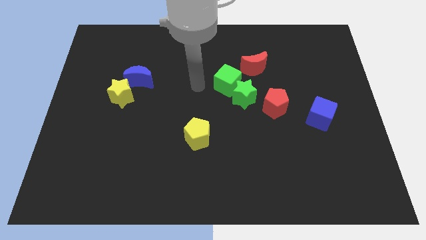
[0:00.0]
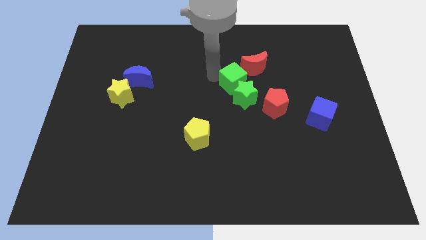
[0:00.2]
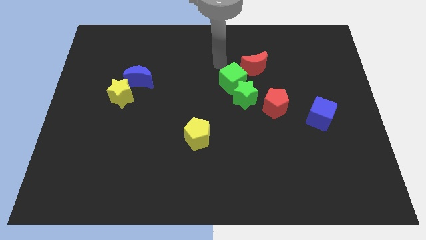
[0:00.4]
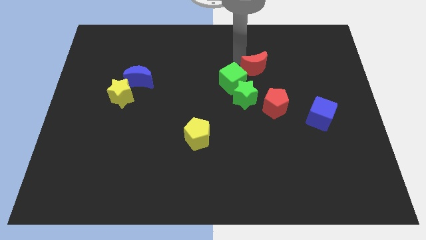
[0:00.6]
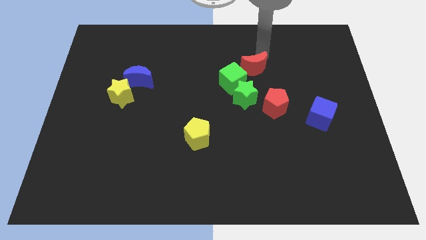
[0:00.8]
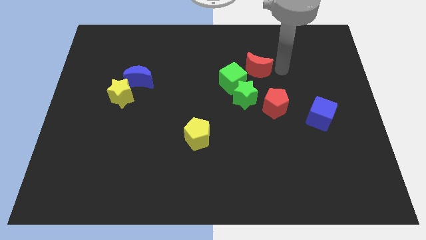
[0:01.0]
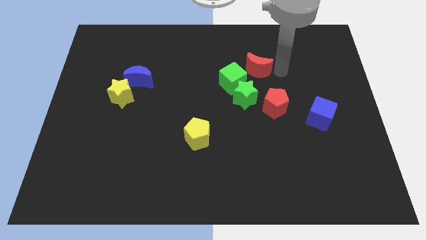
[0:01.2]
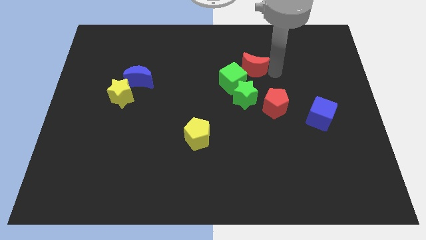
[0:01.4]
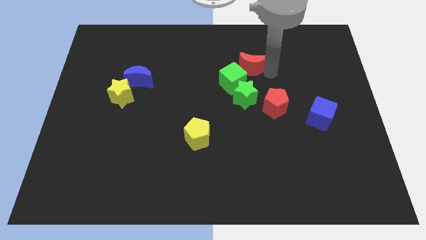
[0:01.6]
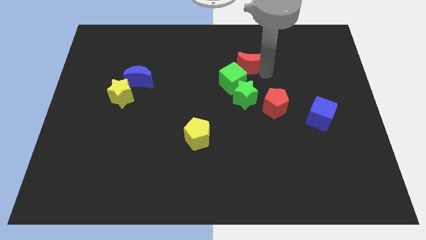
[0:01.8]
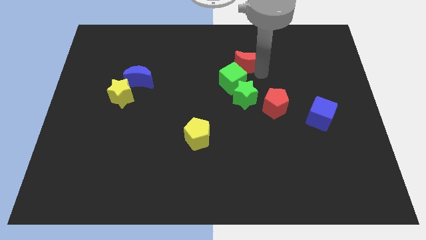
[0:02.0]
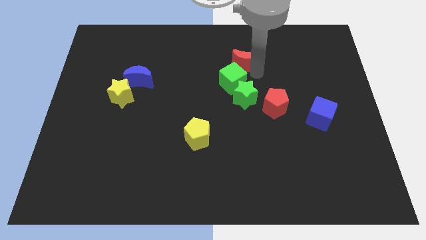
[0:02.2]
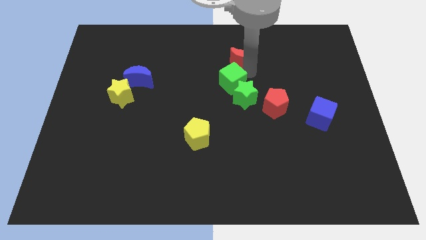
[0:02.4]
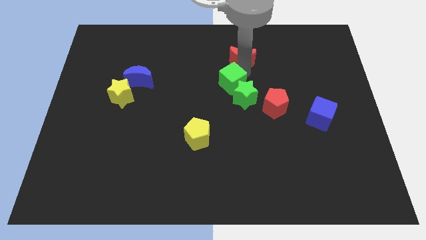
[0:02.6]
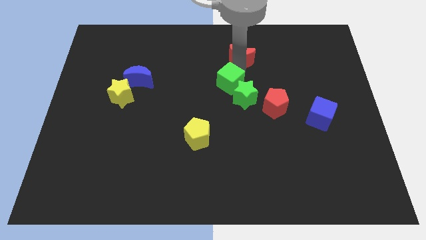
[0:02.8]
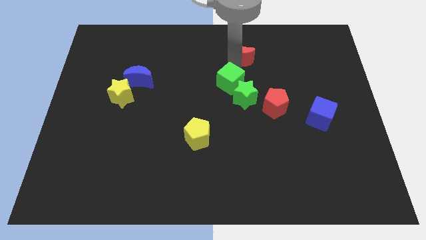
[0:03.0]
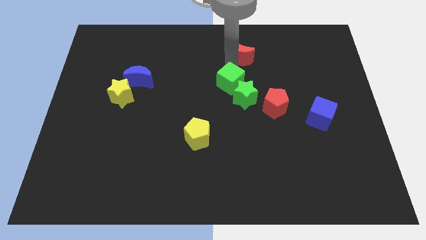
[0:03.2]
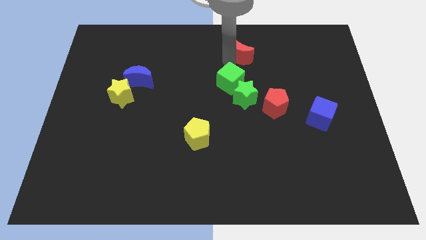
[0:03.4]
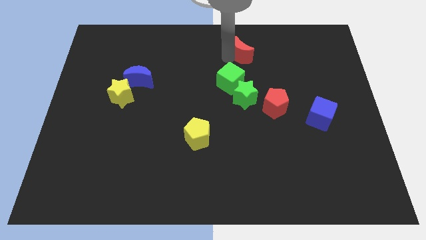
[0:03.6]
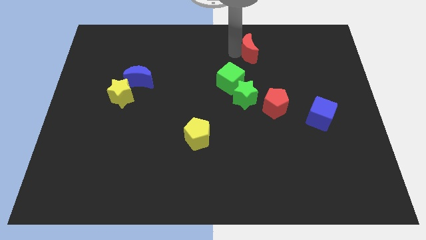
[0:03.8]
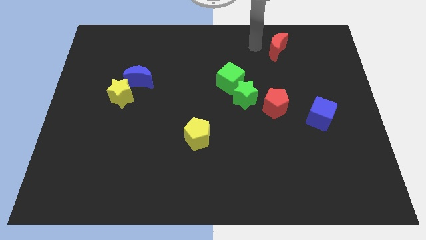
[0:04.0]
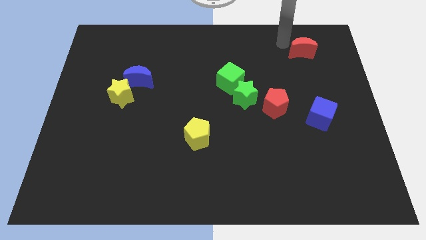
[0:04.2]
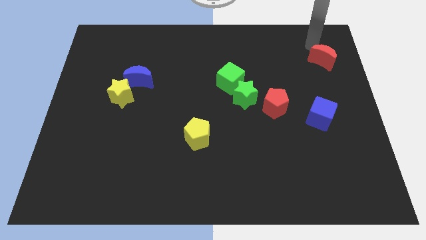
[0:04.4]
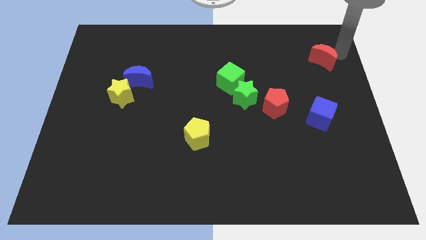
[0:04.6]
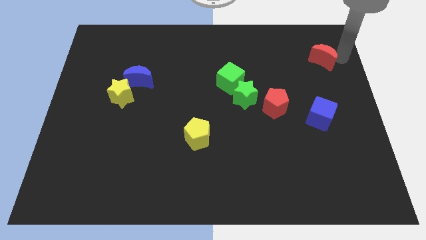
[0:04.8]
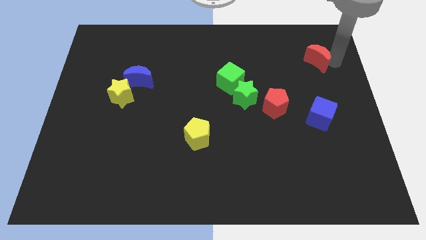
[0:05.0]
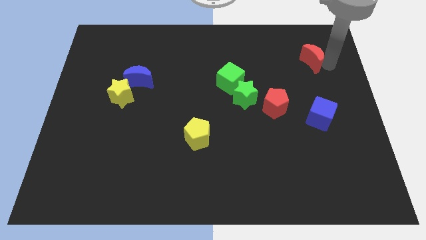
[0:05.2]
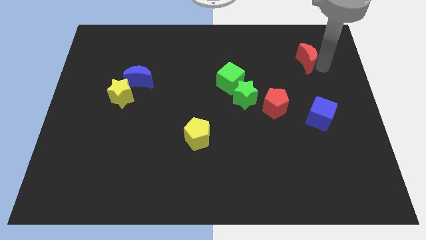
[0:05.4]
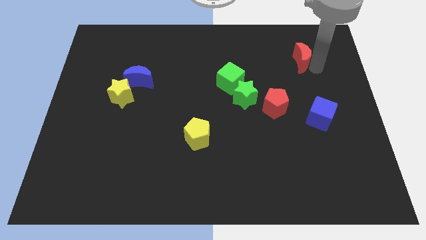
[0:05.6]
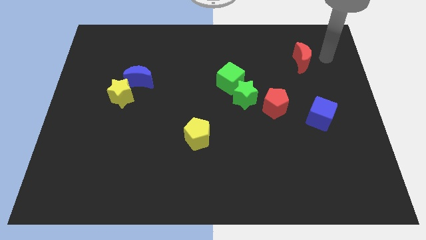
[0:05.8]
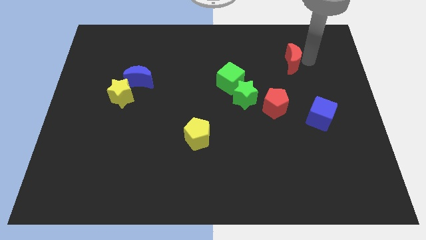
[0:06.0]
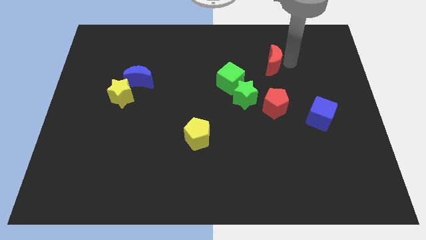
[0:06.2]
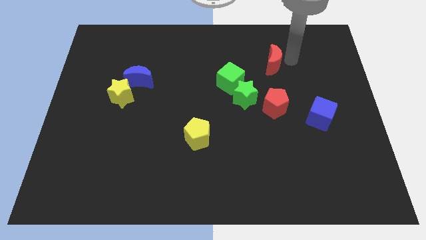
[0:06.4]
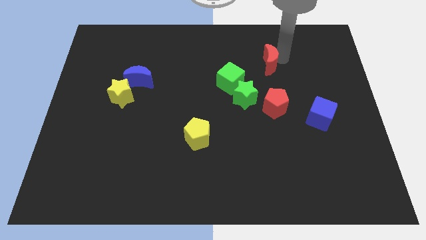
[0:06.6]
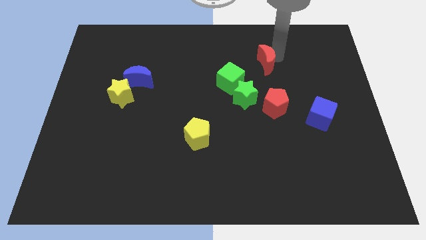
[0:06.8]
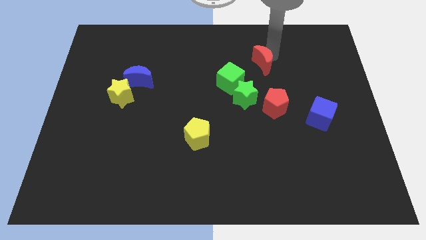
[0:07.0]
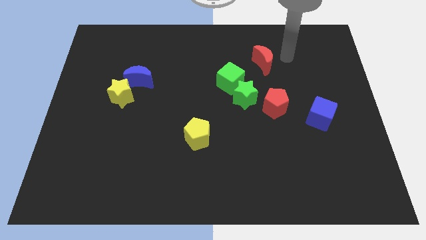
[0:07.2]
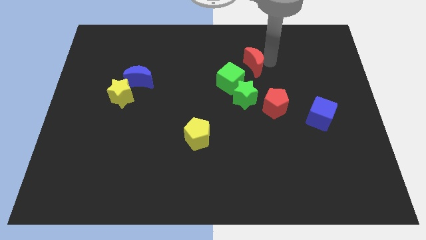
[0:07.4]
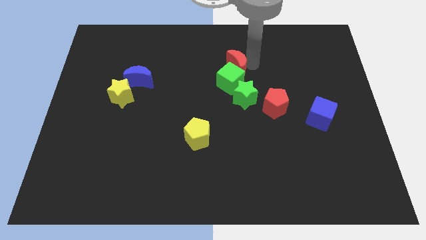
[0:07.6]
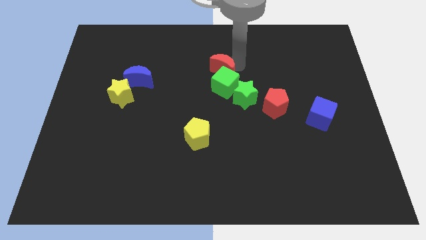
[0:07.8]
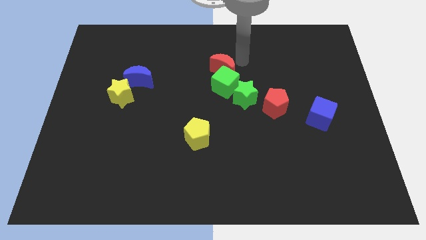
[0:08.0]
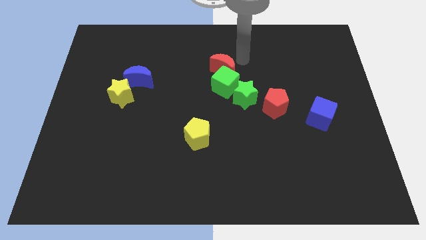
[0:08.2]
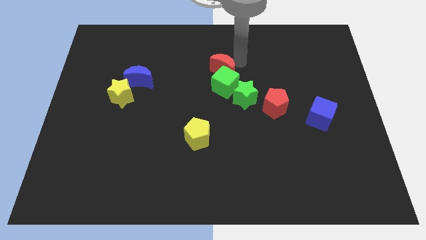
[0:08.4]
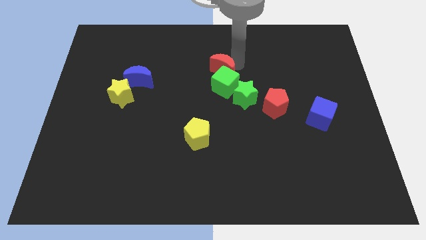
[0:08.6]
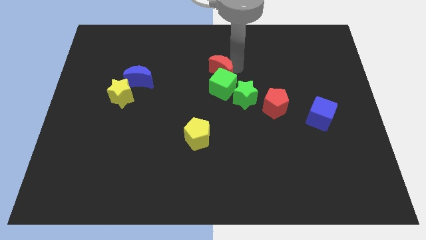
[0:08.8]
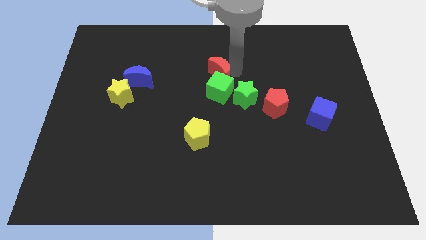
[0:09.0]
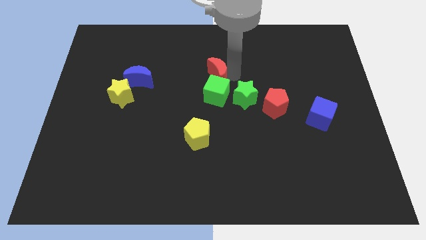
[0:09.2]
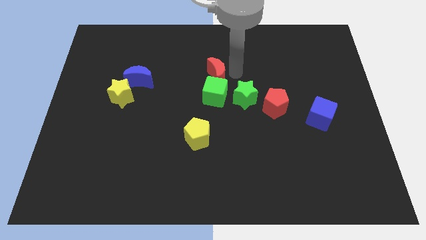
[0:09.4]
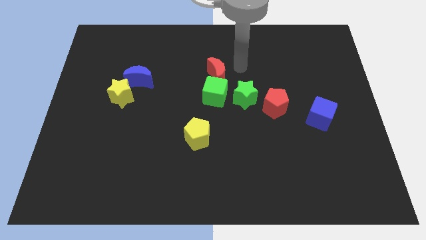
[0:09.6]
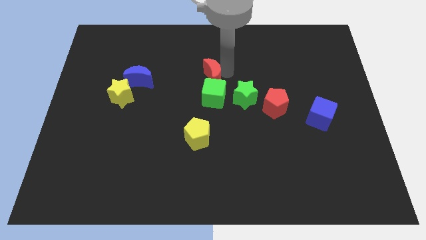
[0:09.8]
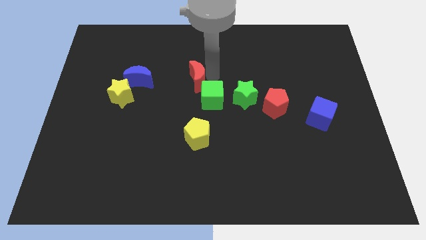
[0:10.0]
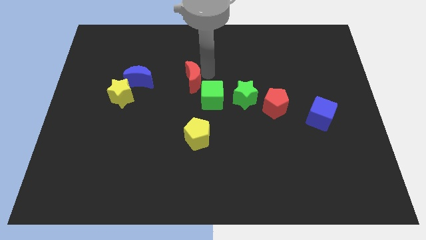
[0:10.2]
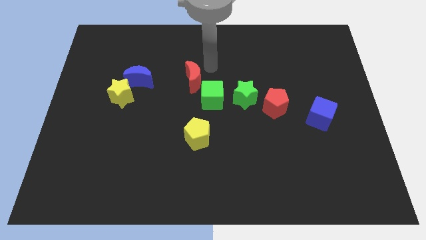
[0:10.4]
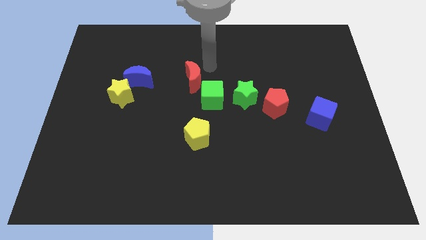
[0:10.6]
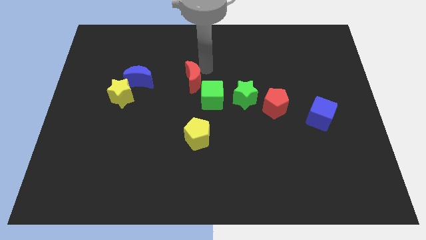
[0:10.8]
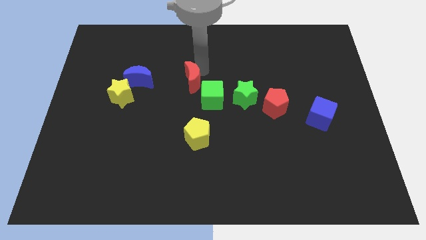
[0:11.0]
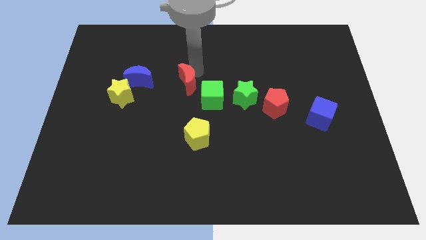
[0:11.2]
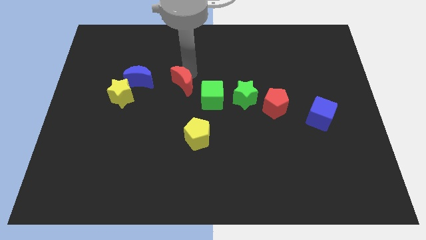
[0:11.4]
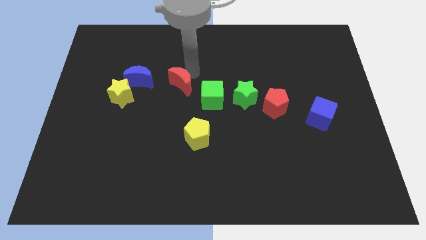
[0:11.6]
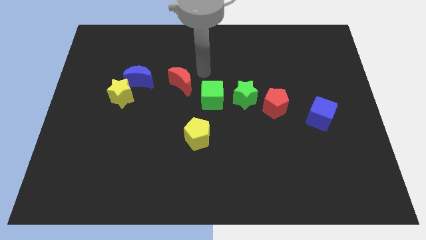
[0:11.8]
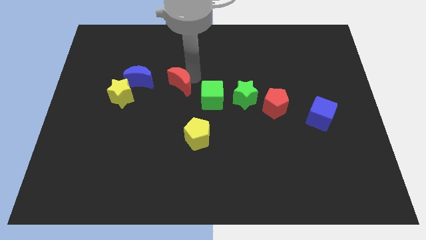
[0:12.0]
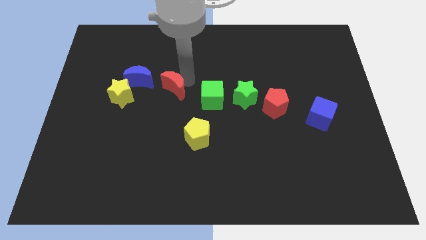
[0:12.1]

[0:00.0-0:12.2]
push the red moon diagonally down and to the right of the blue moon

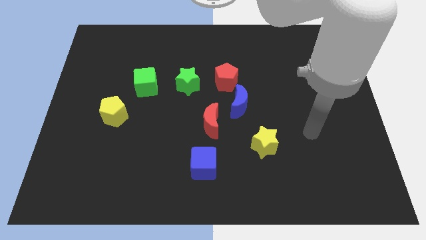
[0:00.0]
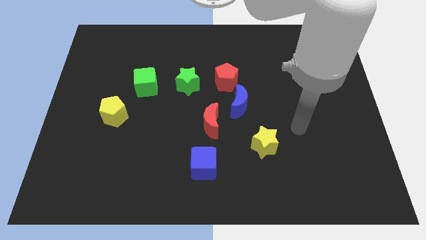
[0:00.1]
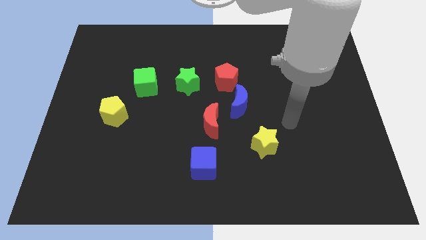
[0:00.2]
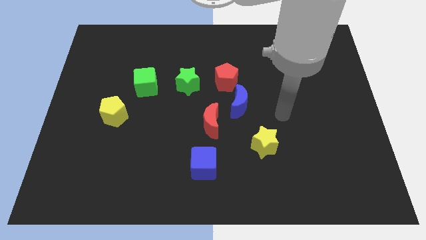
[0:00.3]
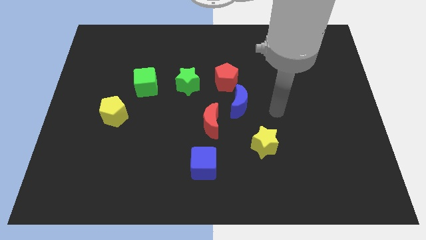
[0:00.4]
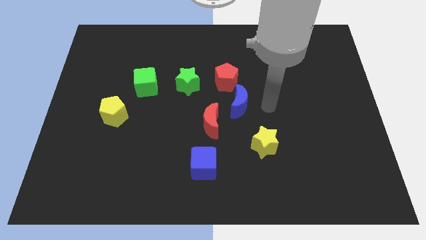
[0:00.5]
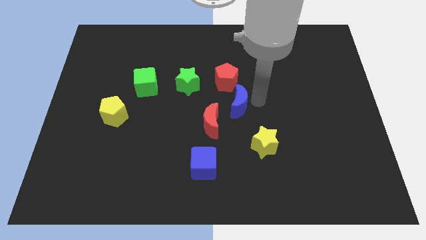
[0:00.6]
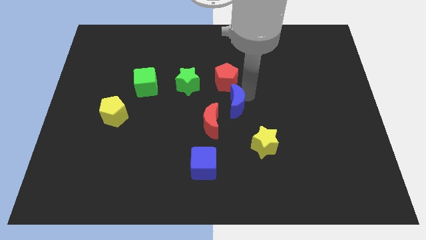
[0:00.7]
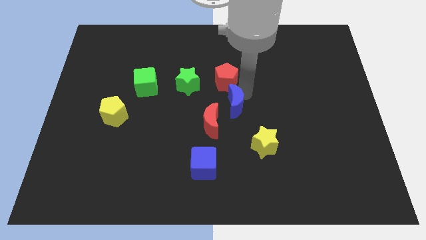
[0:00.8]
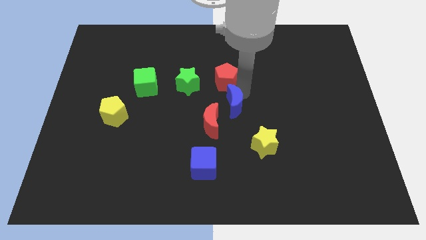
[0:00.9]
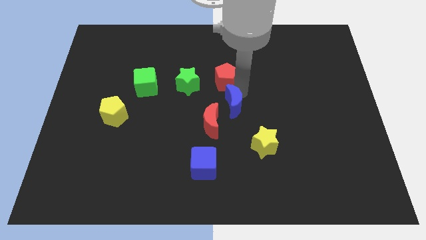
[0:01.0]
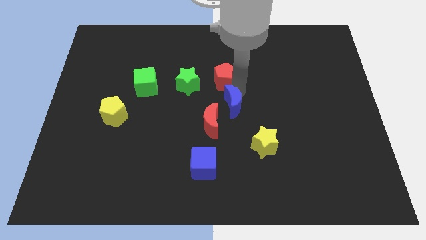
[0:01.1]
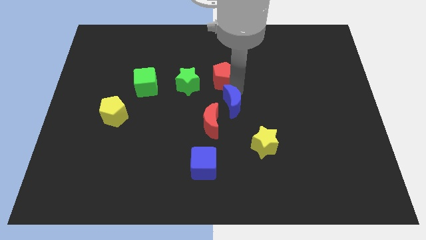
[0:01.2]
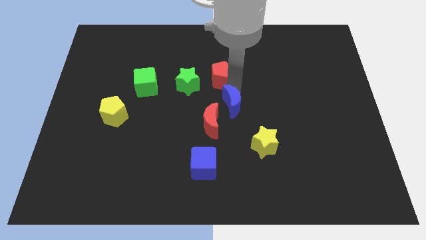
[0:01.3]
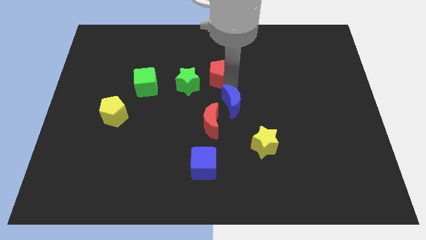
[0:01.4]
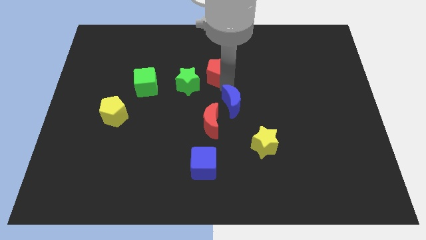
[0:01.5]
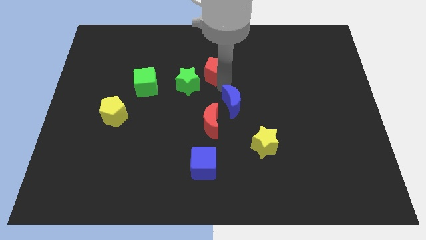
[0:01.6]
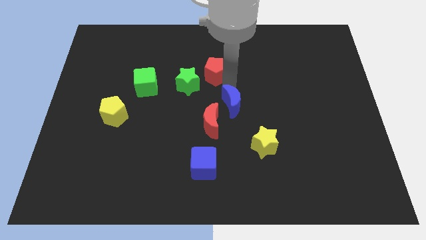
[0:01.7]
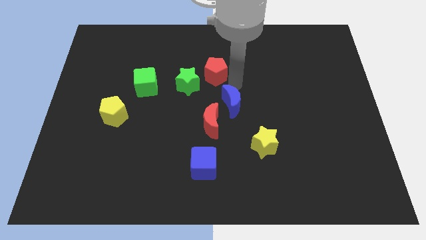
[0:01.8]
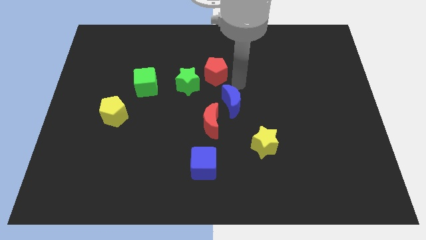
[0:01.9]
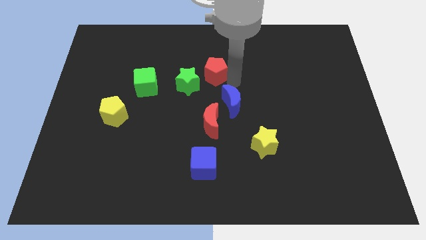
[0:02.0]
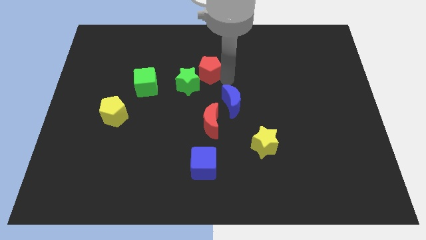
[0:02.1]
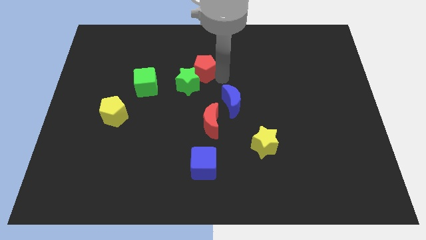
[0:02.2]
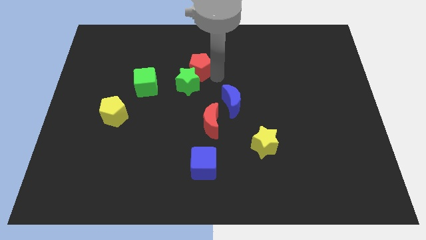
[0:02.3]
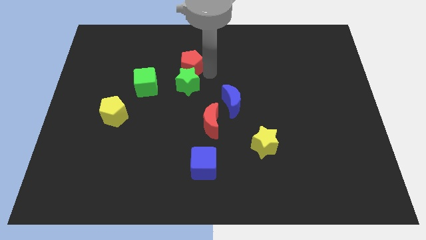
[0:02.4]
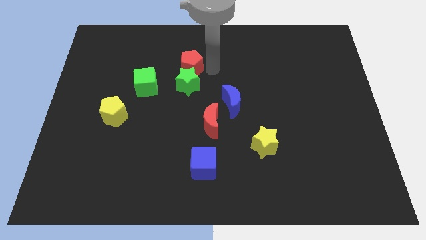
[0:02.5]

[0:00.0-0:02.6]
slide the red pentagon to the top right of the green cube
